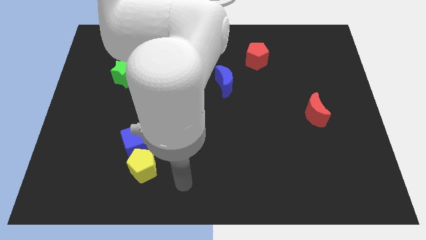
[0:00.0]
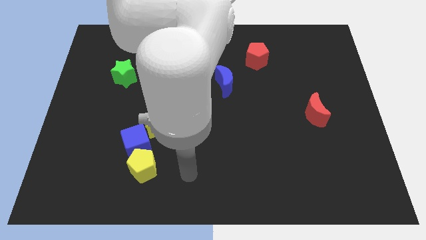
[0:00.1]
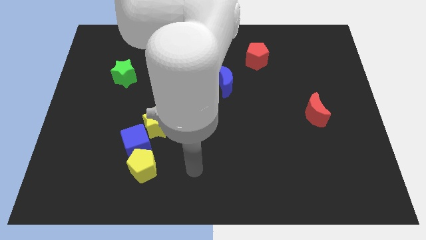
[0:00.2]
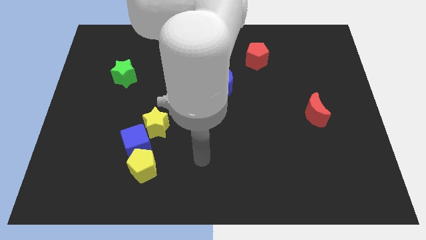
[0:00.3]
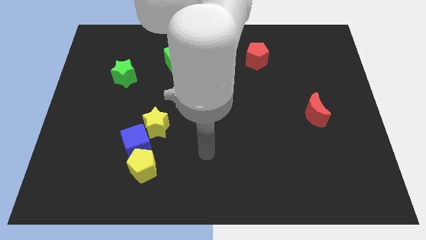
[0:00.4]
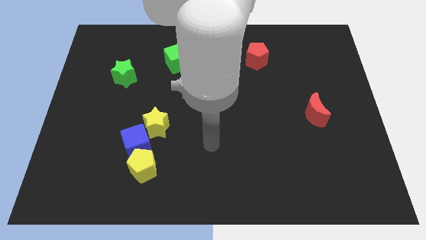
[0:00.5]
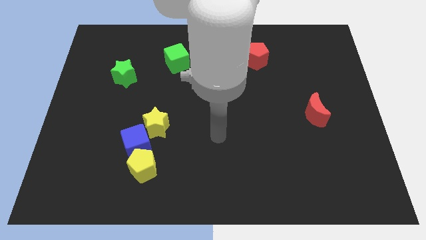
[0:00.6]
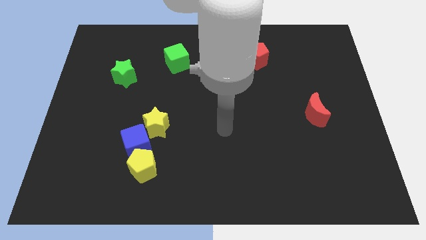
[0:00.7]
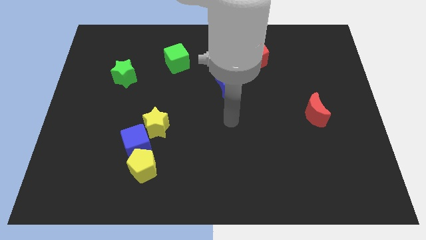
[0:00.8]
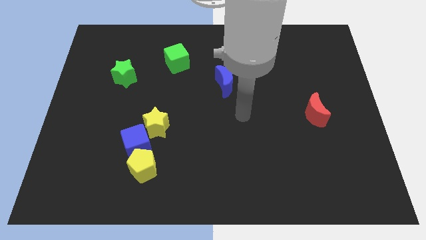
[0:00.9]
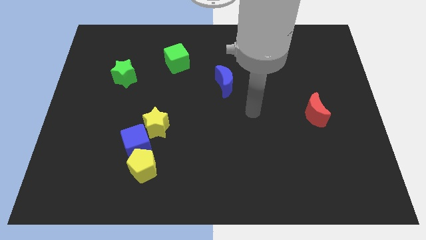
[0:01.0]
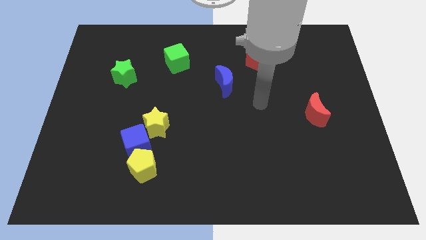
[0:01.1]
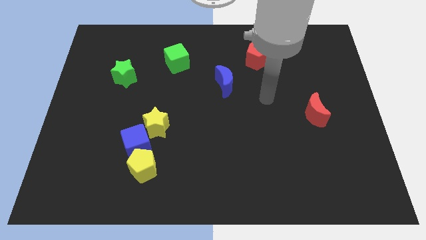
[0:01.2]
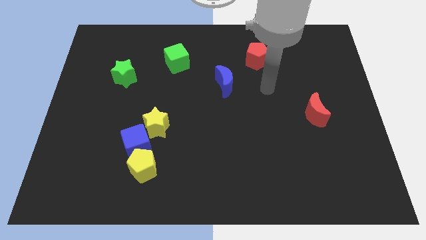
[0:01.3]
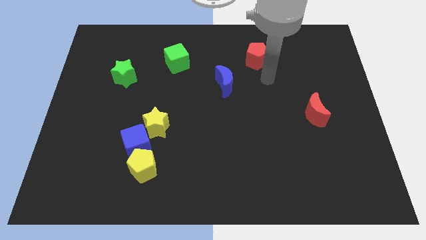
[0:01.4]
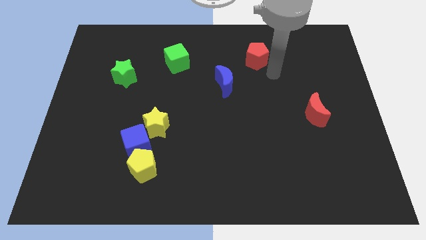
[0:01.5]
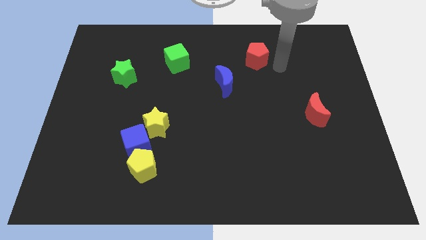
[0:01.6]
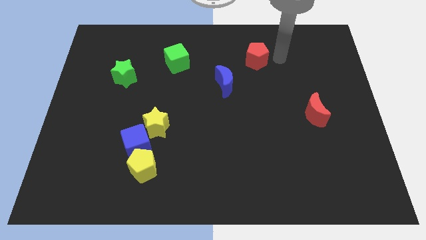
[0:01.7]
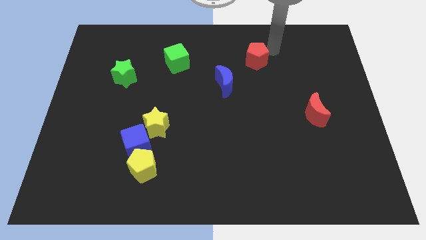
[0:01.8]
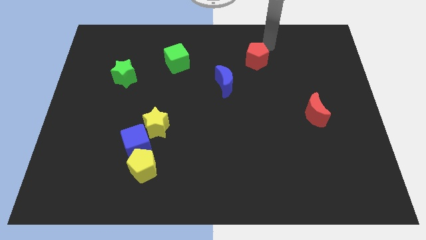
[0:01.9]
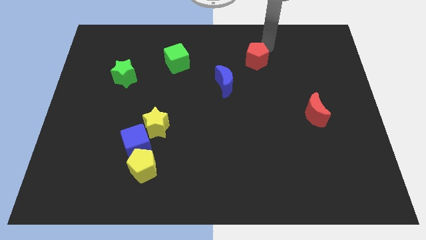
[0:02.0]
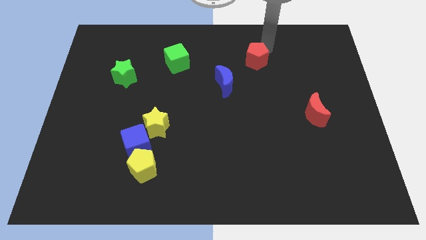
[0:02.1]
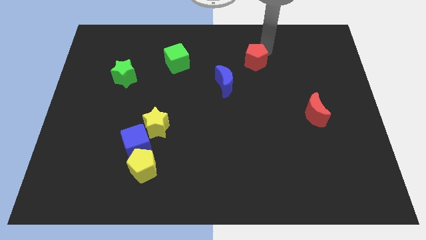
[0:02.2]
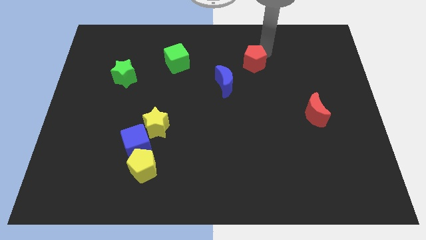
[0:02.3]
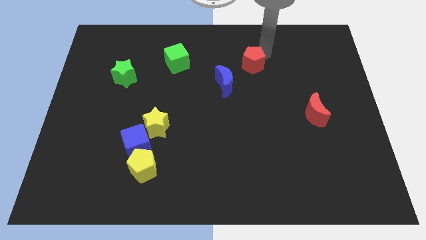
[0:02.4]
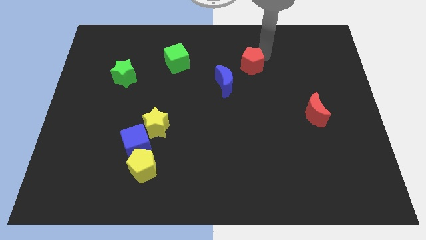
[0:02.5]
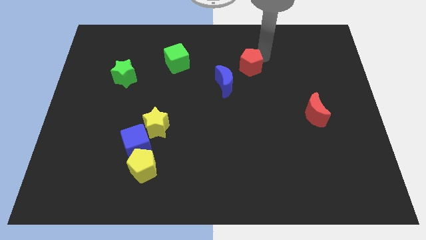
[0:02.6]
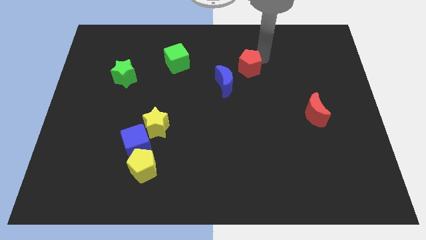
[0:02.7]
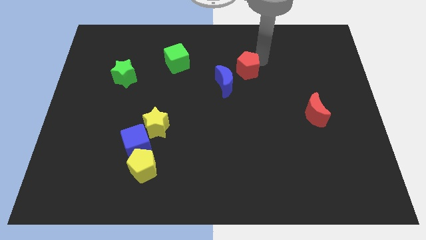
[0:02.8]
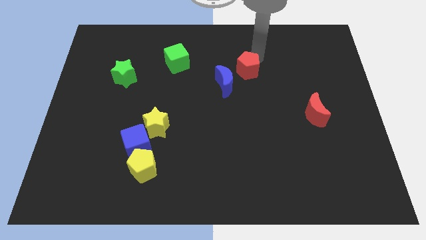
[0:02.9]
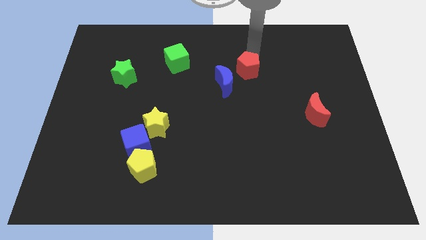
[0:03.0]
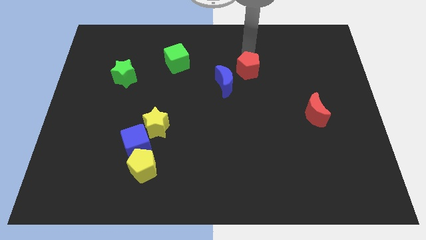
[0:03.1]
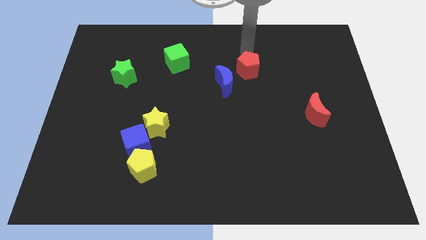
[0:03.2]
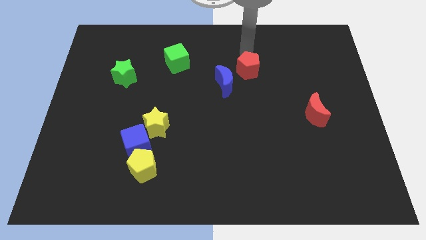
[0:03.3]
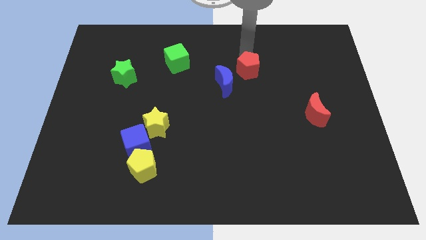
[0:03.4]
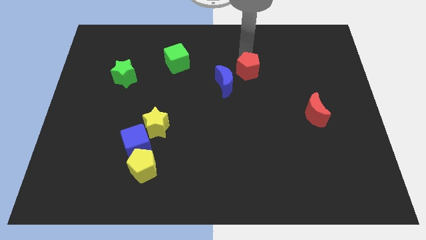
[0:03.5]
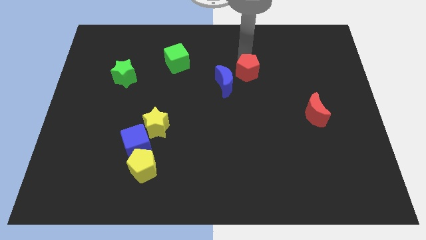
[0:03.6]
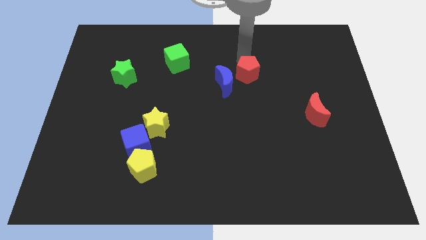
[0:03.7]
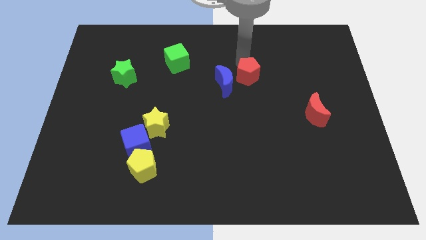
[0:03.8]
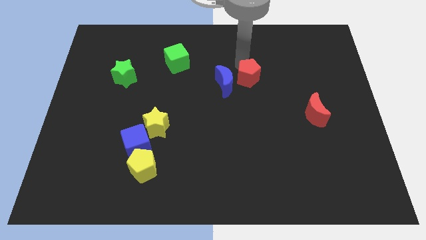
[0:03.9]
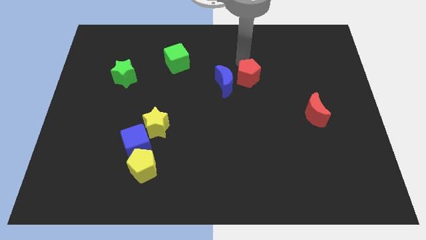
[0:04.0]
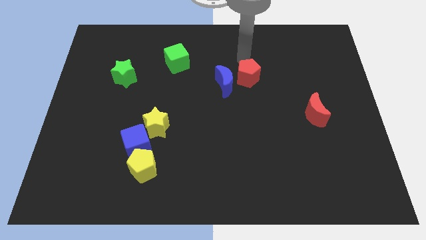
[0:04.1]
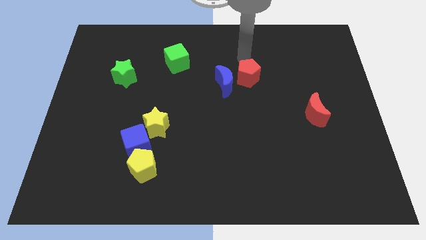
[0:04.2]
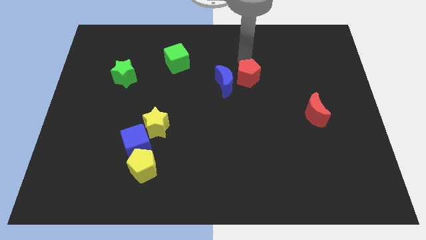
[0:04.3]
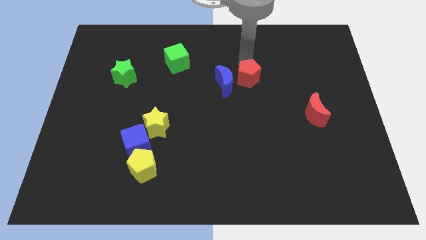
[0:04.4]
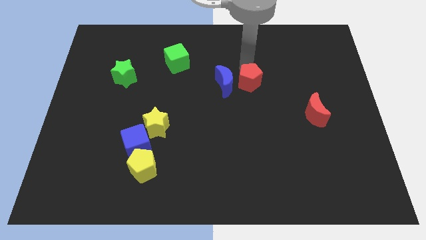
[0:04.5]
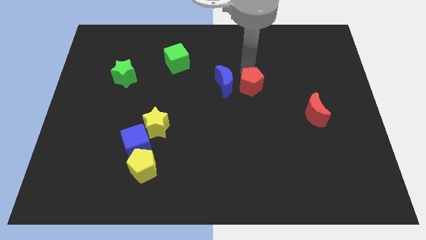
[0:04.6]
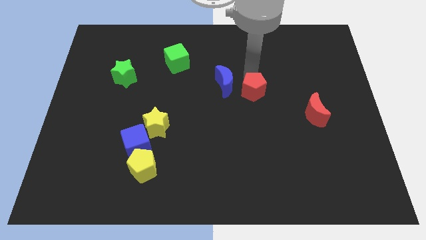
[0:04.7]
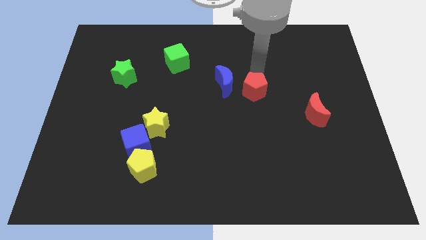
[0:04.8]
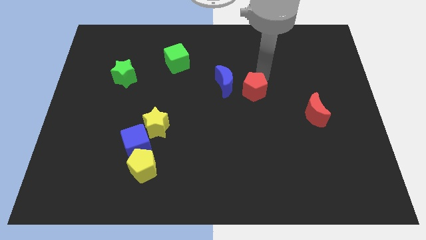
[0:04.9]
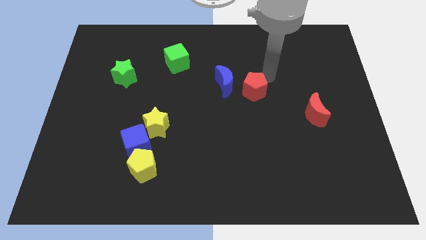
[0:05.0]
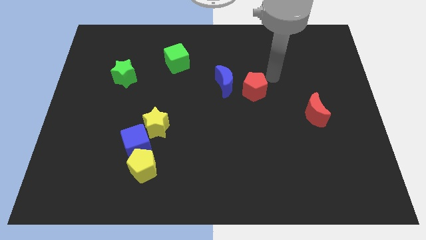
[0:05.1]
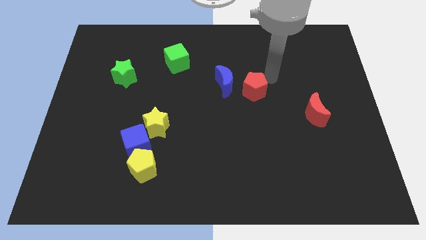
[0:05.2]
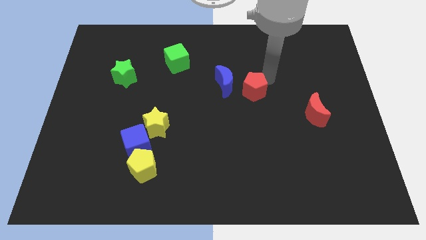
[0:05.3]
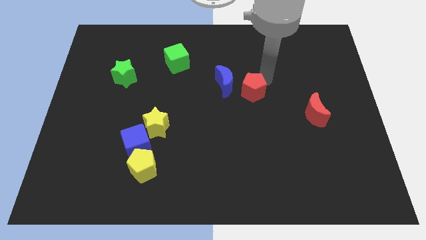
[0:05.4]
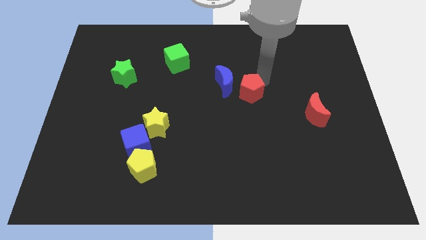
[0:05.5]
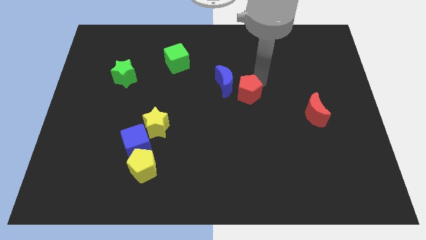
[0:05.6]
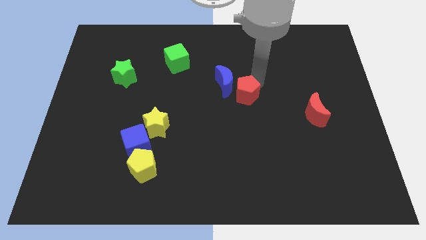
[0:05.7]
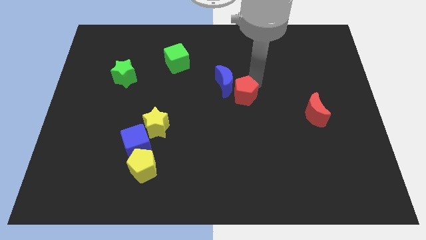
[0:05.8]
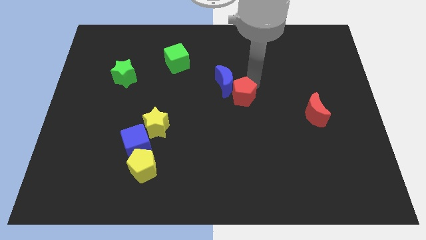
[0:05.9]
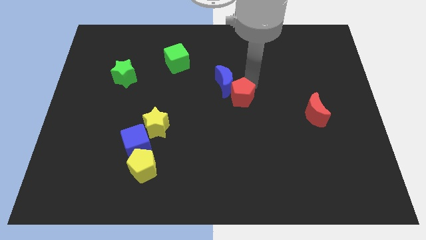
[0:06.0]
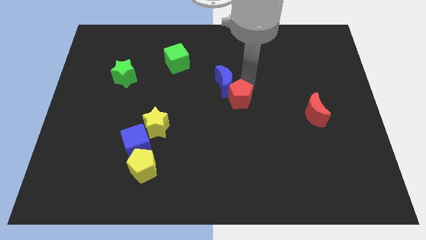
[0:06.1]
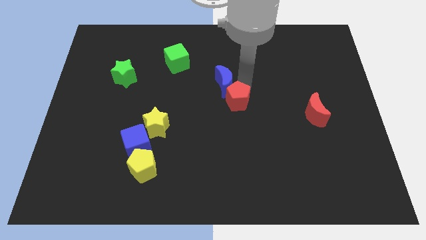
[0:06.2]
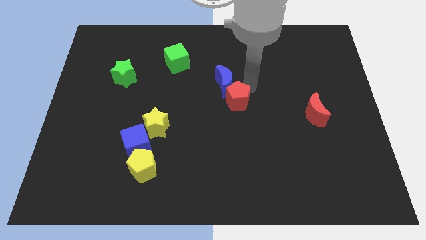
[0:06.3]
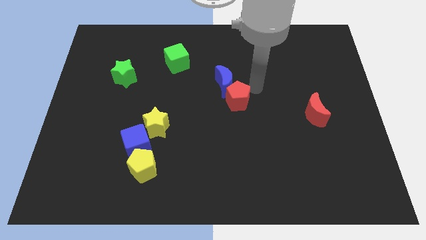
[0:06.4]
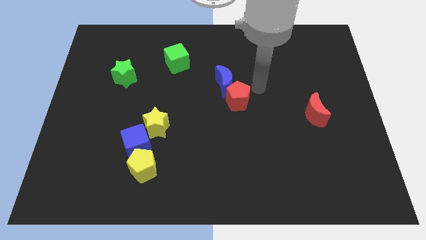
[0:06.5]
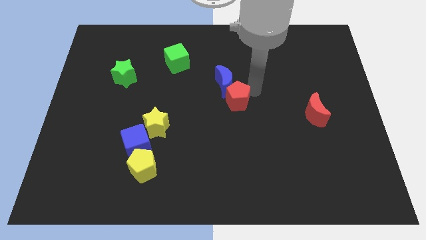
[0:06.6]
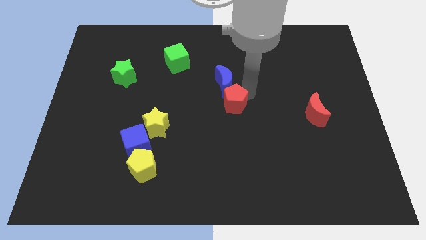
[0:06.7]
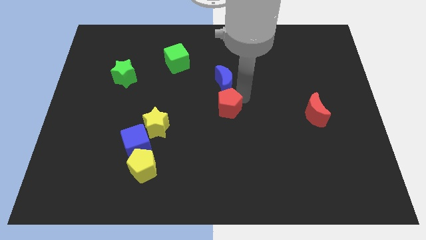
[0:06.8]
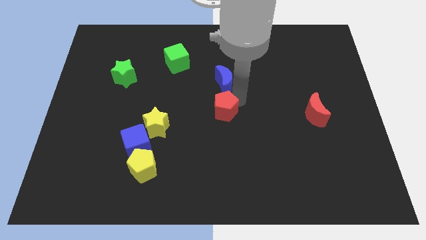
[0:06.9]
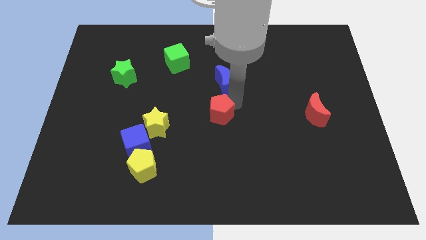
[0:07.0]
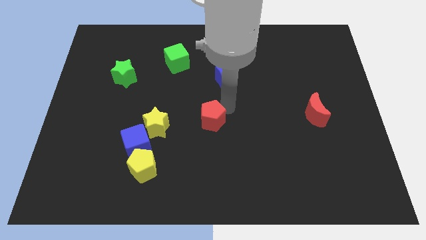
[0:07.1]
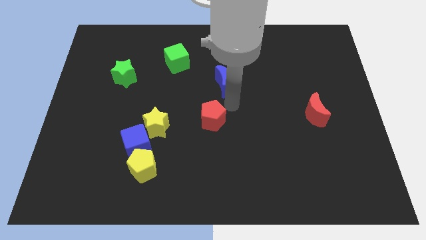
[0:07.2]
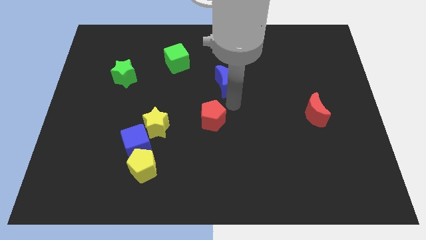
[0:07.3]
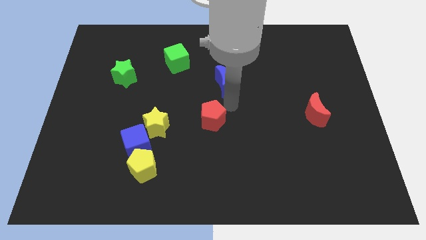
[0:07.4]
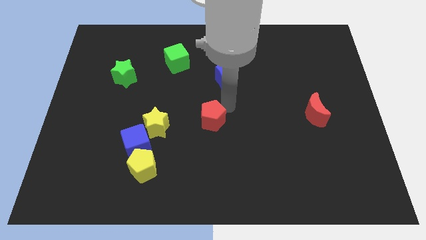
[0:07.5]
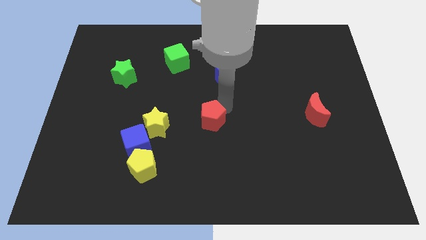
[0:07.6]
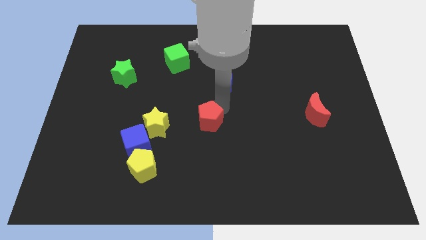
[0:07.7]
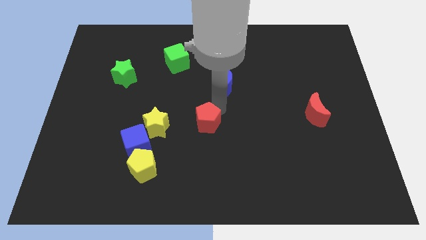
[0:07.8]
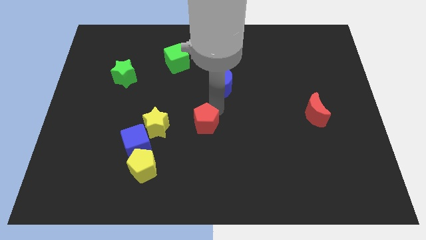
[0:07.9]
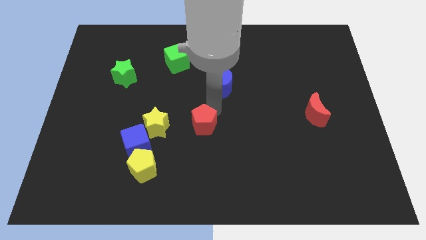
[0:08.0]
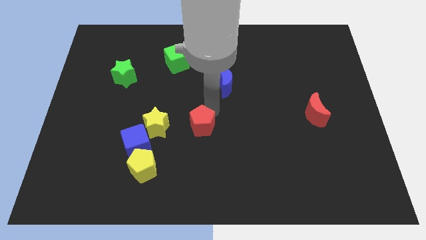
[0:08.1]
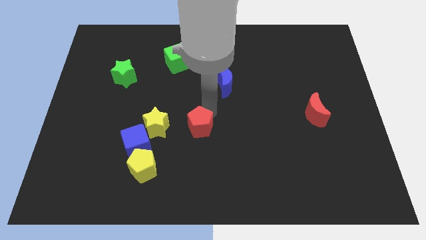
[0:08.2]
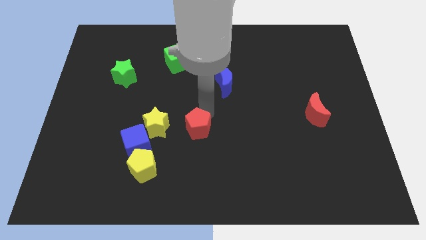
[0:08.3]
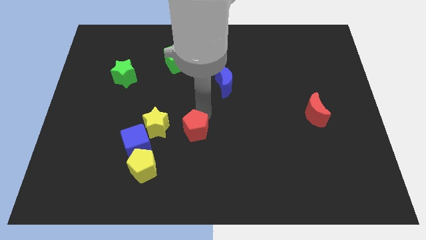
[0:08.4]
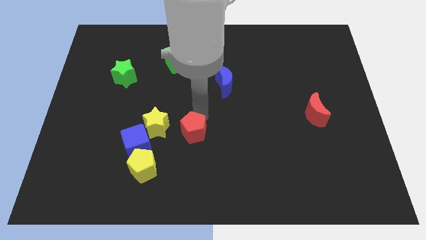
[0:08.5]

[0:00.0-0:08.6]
move the red pentagon to the bottom right of the yellow star
